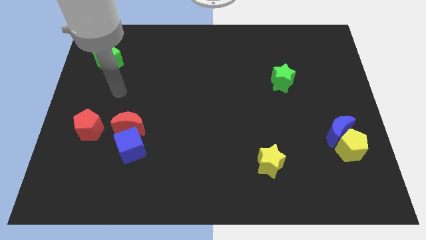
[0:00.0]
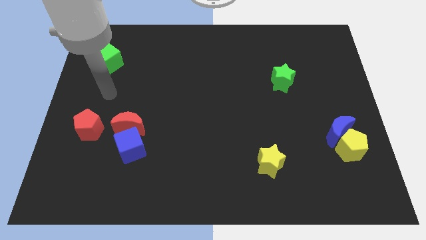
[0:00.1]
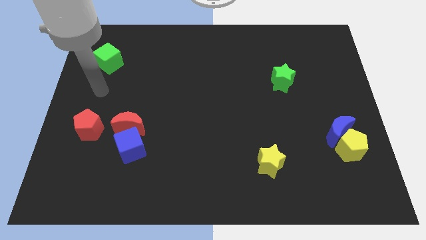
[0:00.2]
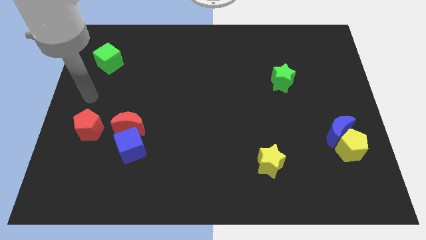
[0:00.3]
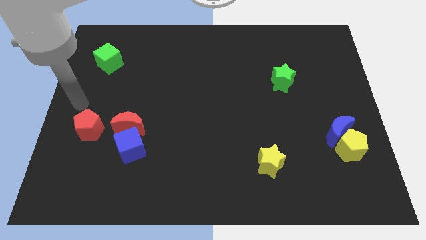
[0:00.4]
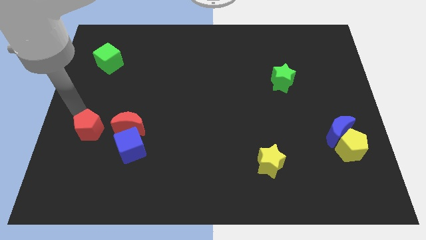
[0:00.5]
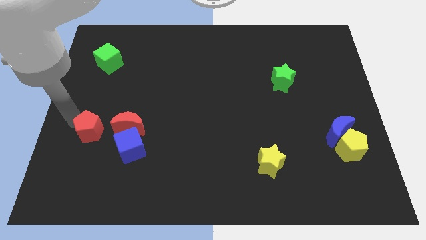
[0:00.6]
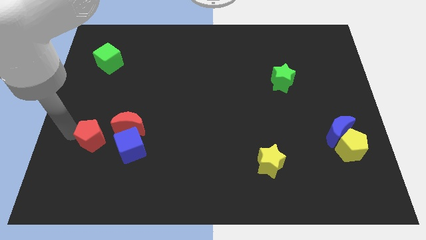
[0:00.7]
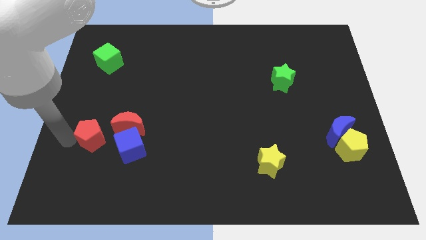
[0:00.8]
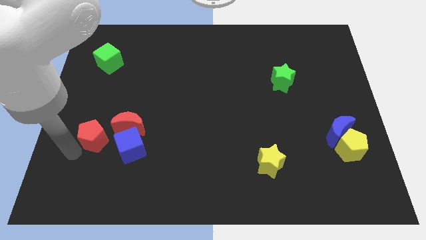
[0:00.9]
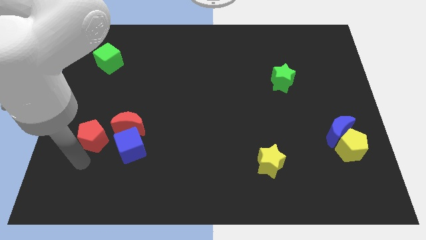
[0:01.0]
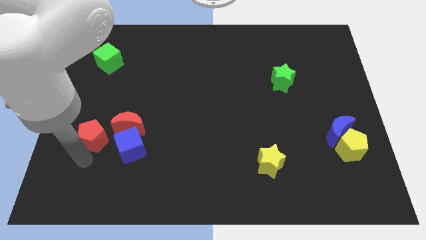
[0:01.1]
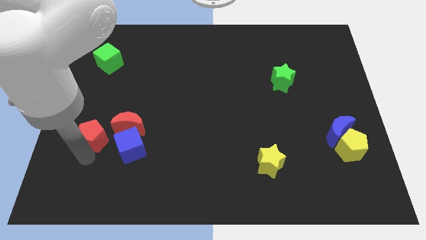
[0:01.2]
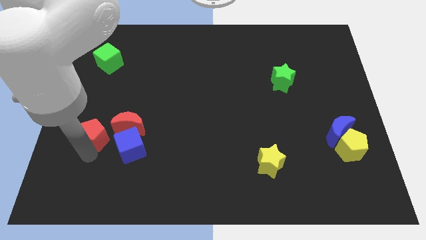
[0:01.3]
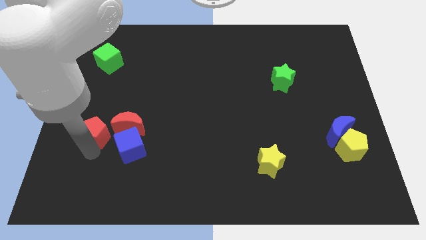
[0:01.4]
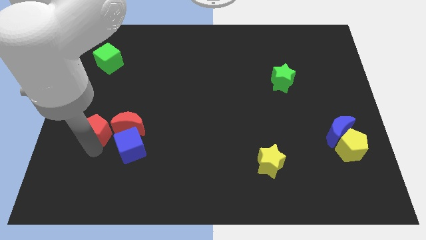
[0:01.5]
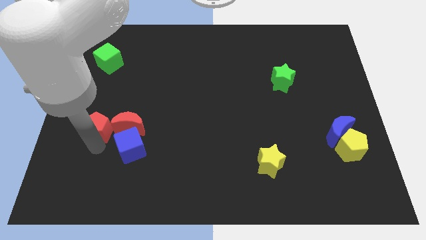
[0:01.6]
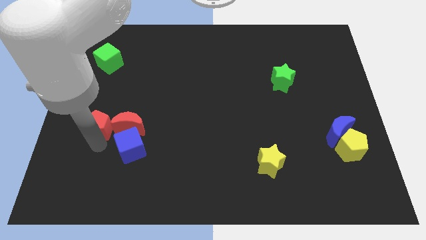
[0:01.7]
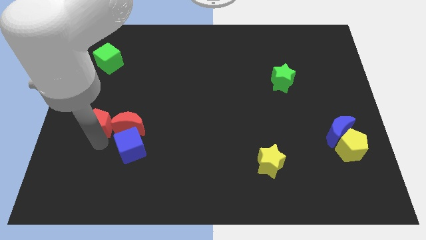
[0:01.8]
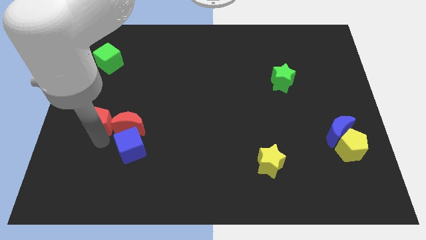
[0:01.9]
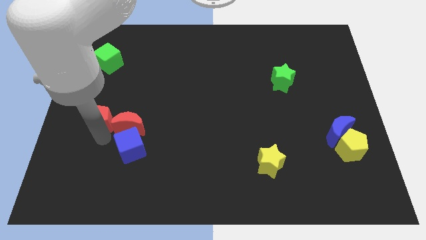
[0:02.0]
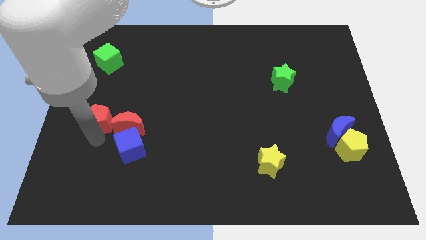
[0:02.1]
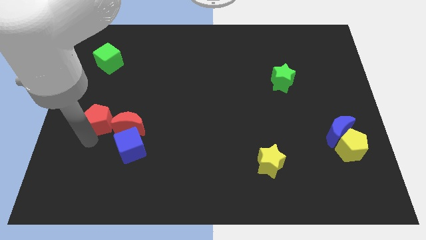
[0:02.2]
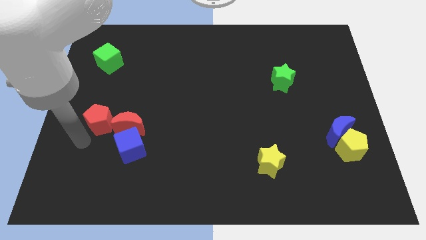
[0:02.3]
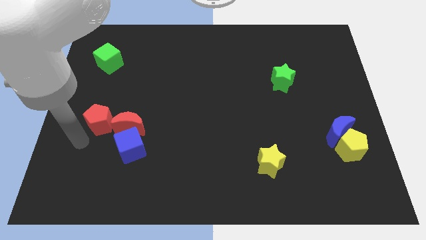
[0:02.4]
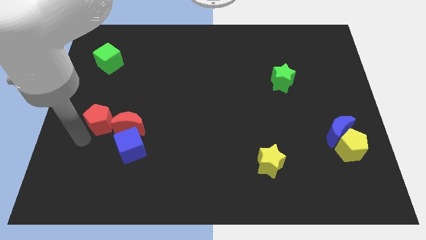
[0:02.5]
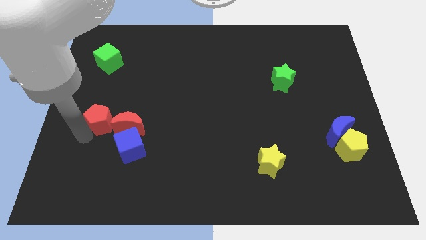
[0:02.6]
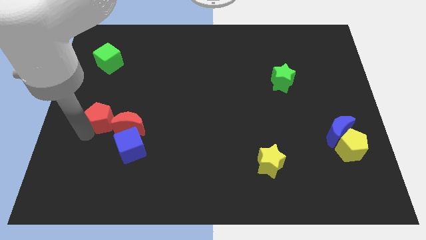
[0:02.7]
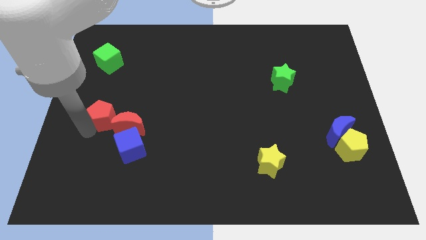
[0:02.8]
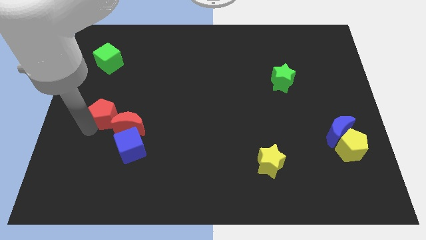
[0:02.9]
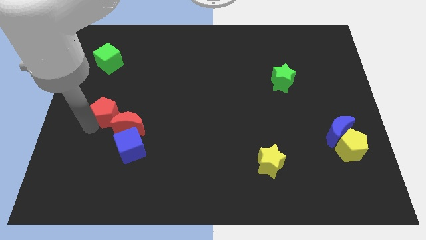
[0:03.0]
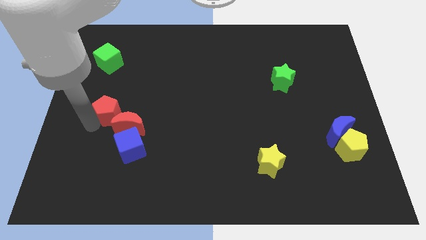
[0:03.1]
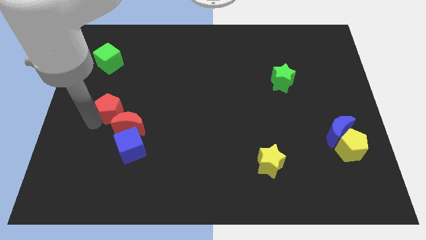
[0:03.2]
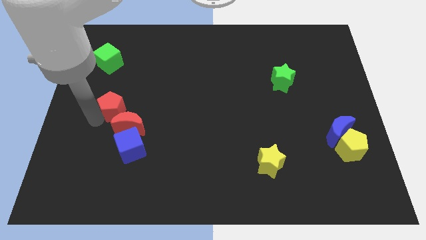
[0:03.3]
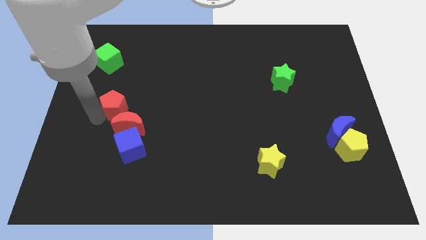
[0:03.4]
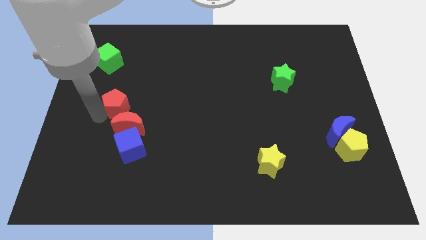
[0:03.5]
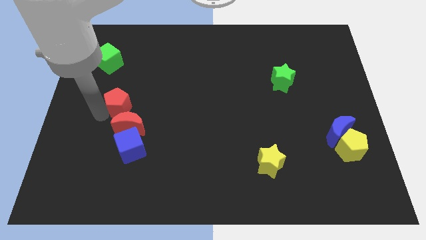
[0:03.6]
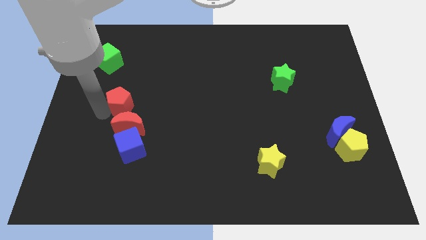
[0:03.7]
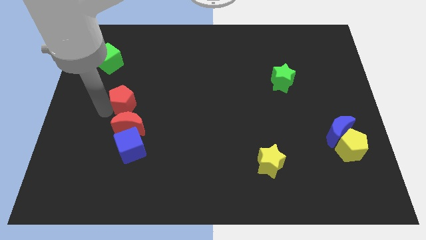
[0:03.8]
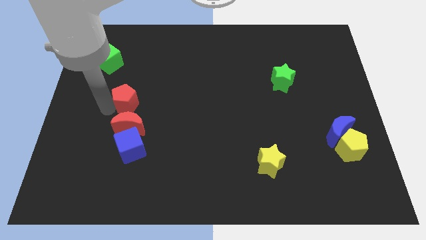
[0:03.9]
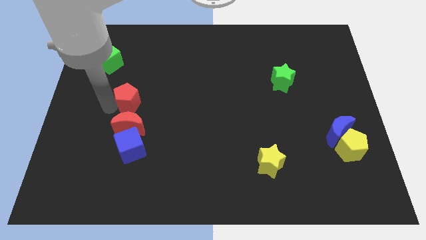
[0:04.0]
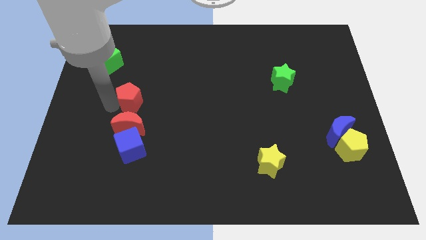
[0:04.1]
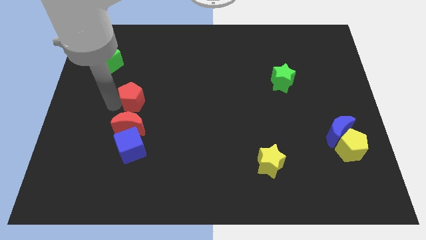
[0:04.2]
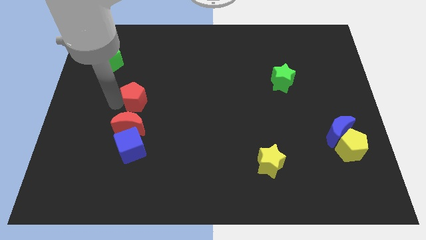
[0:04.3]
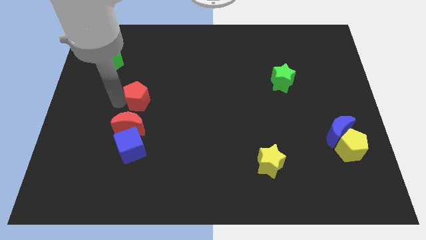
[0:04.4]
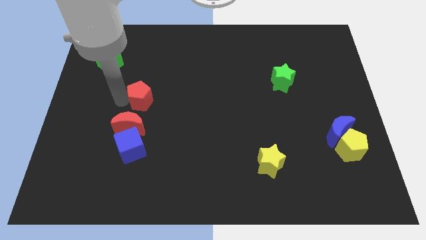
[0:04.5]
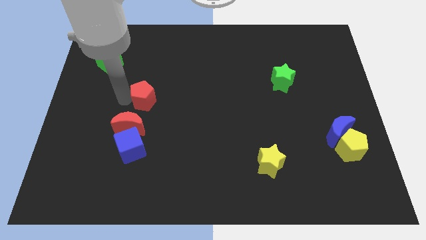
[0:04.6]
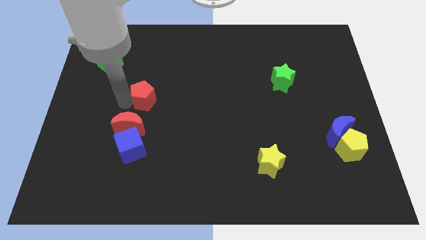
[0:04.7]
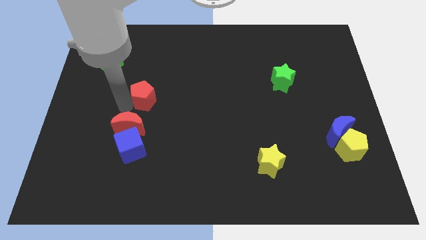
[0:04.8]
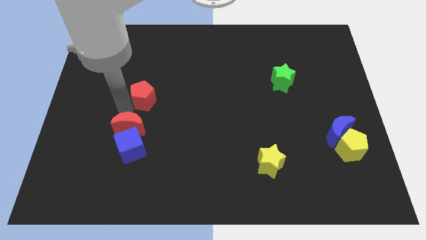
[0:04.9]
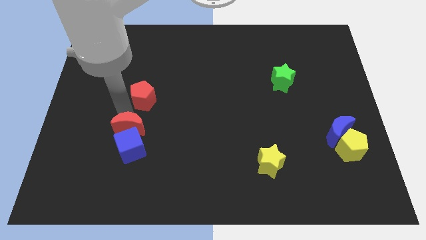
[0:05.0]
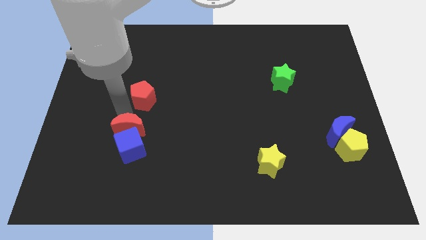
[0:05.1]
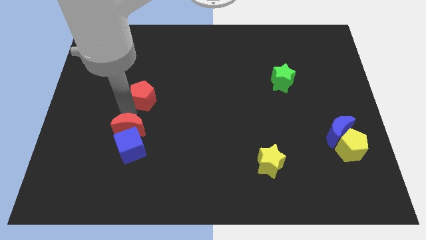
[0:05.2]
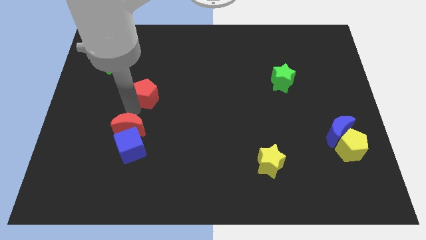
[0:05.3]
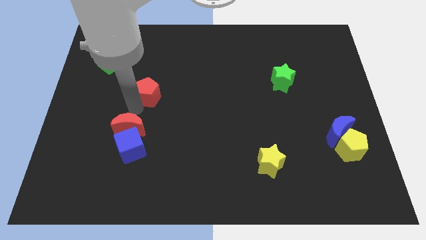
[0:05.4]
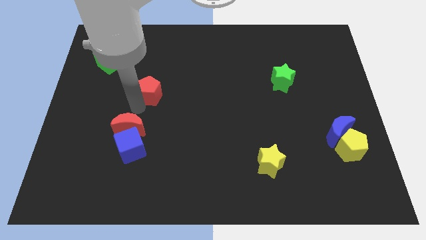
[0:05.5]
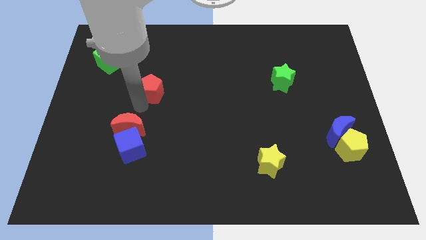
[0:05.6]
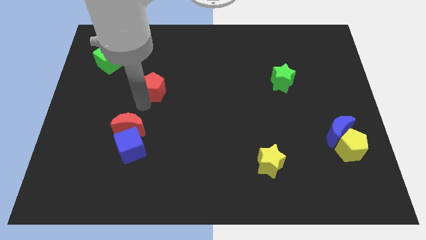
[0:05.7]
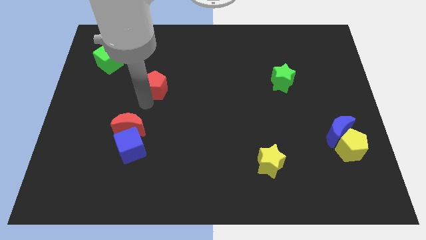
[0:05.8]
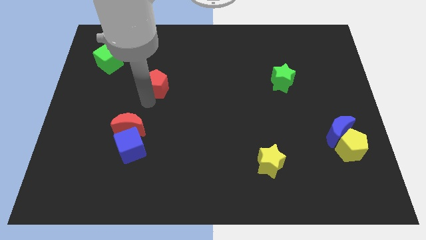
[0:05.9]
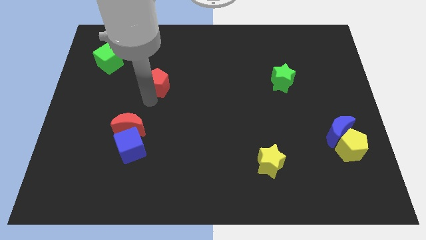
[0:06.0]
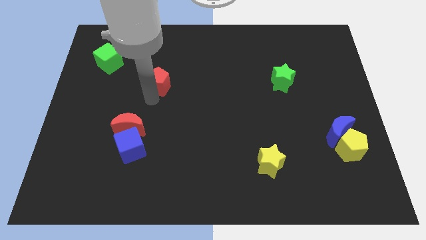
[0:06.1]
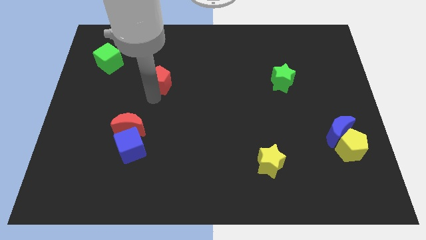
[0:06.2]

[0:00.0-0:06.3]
push the red pentagon upwards and then right

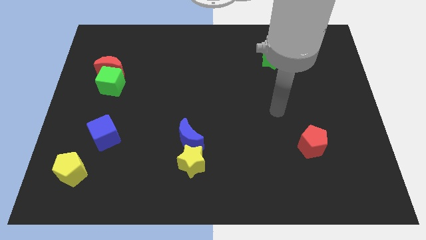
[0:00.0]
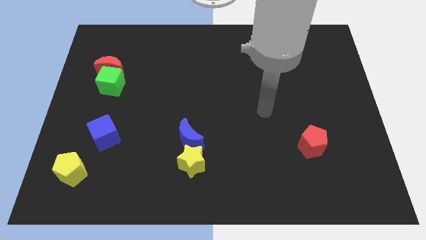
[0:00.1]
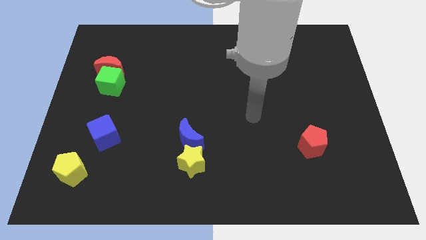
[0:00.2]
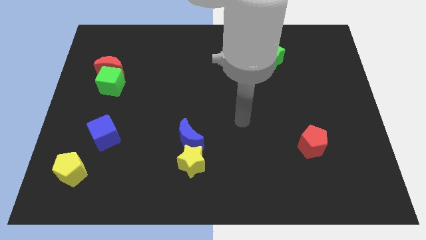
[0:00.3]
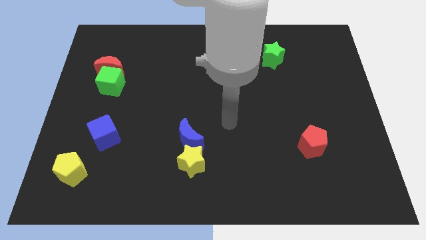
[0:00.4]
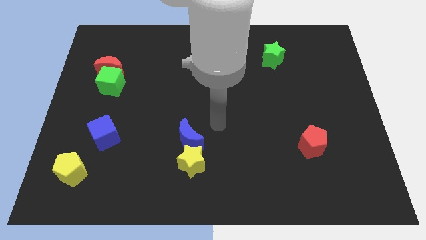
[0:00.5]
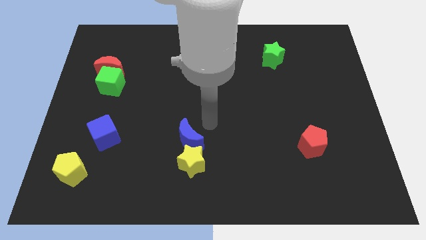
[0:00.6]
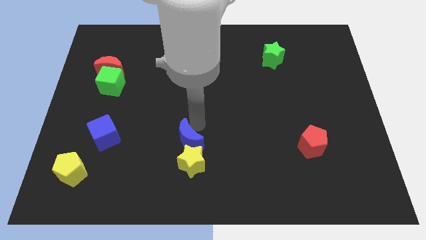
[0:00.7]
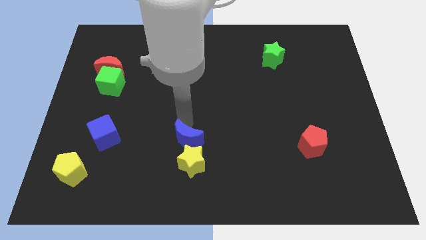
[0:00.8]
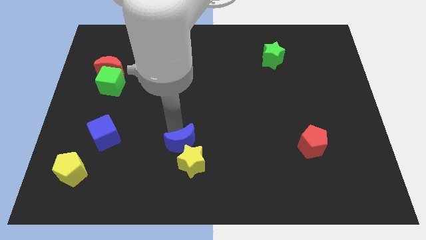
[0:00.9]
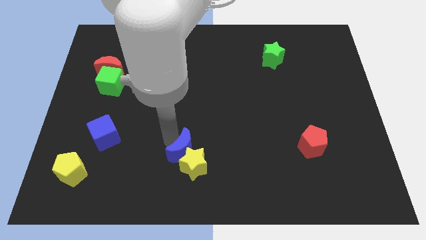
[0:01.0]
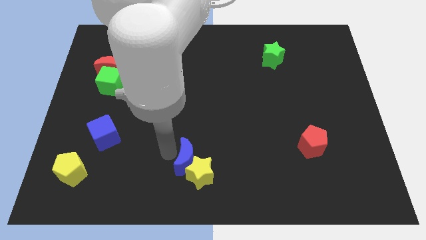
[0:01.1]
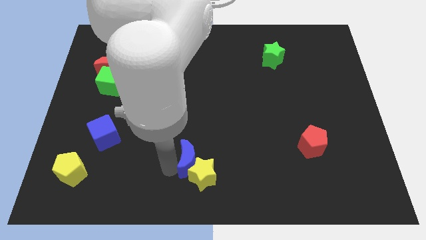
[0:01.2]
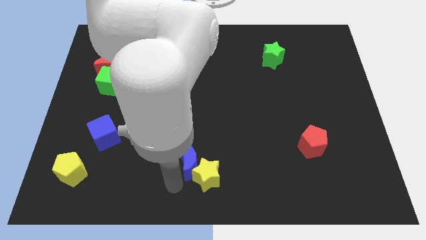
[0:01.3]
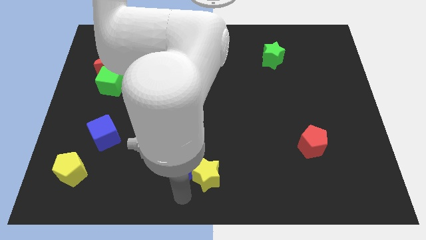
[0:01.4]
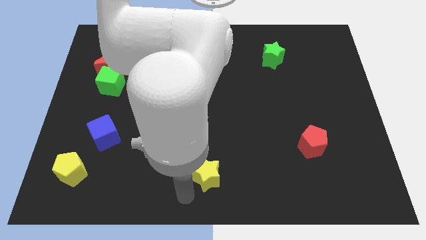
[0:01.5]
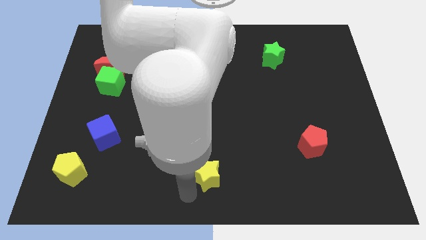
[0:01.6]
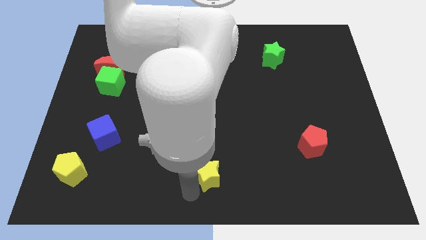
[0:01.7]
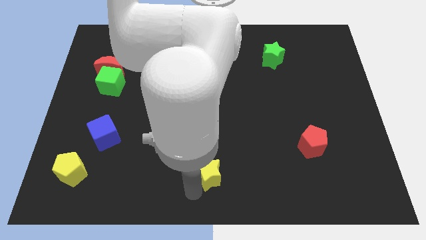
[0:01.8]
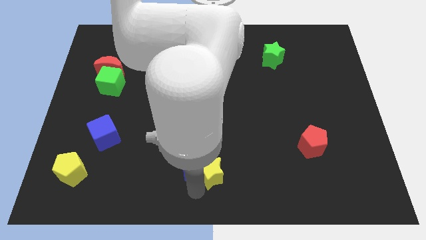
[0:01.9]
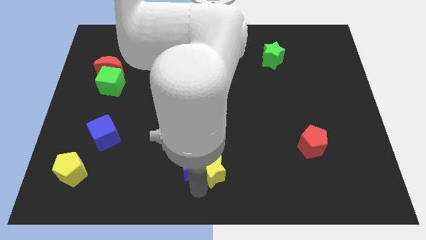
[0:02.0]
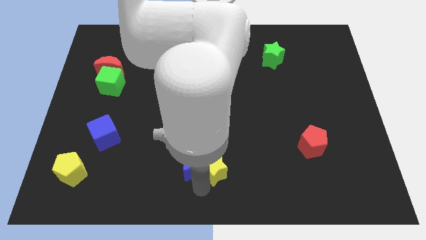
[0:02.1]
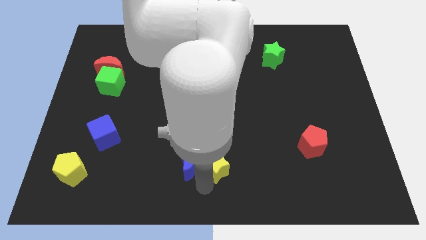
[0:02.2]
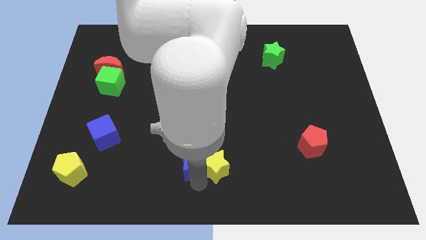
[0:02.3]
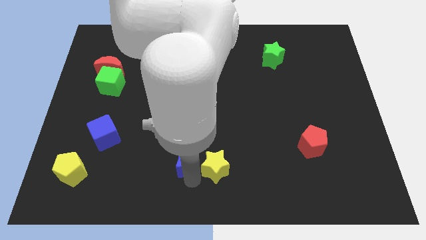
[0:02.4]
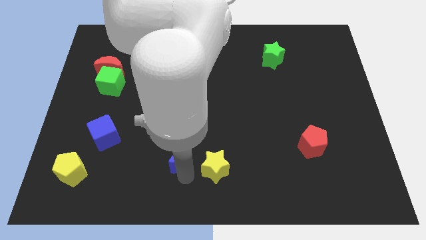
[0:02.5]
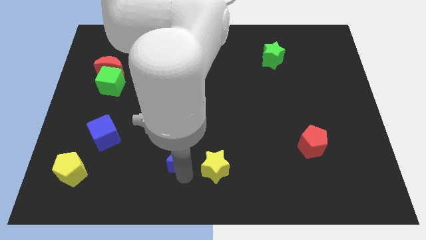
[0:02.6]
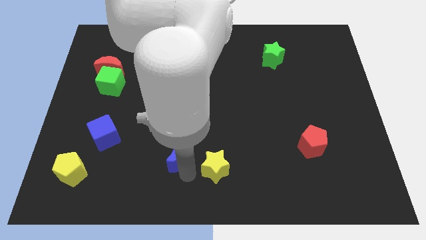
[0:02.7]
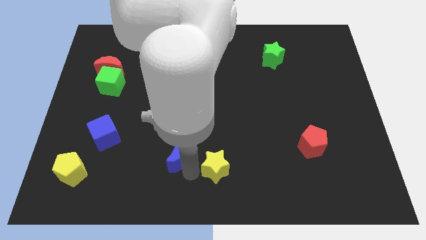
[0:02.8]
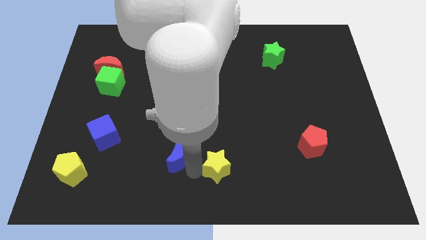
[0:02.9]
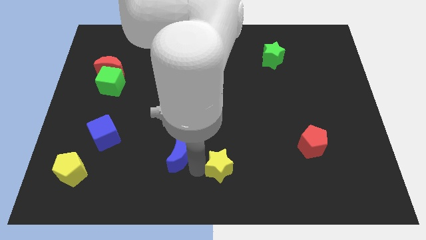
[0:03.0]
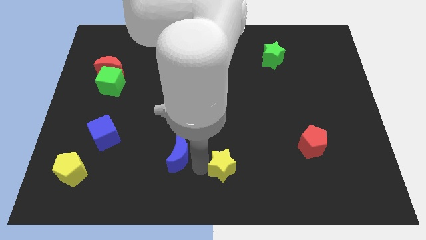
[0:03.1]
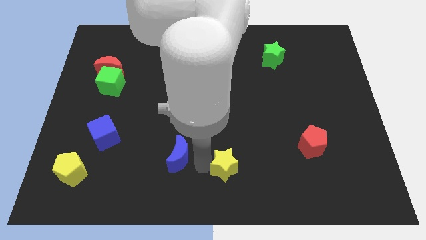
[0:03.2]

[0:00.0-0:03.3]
slightly push the yellow star to the right
